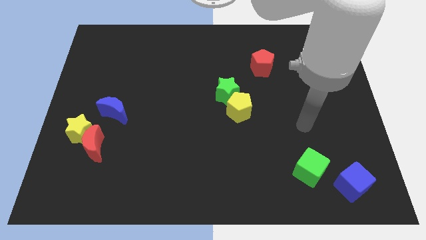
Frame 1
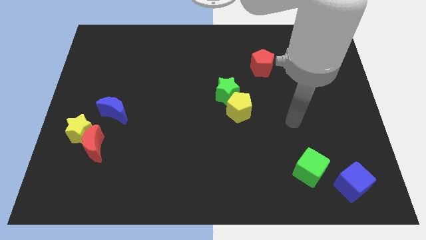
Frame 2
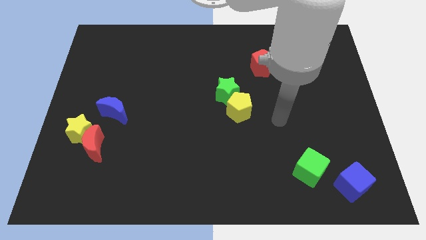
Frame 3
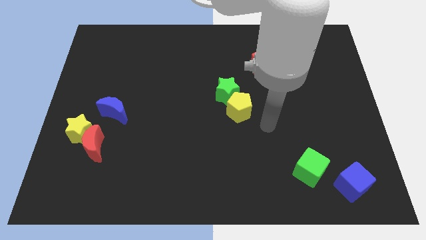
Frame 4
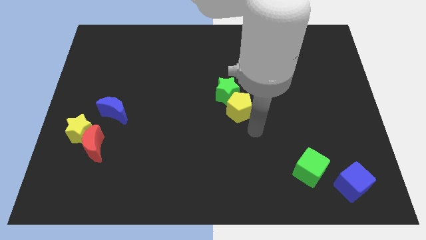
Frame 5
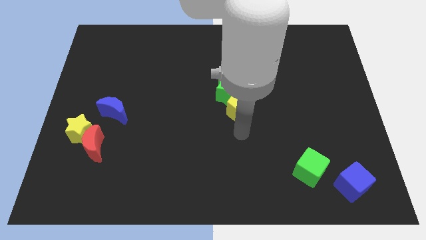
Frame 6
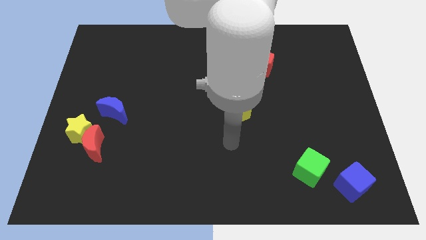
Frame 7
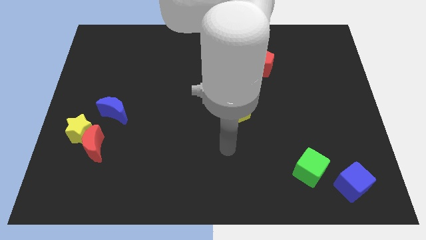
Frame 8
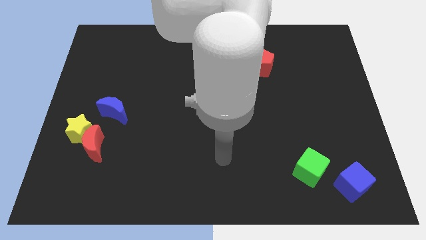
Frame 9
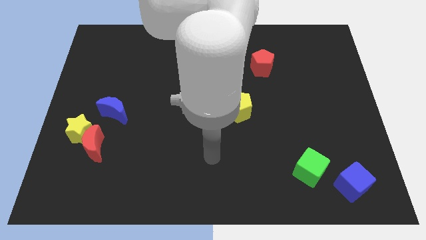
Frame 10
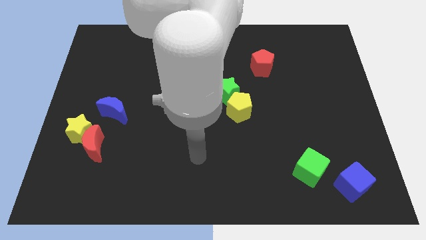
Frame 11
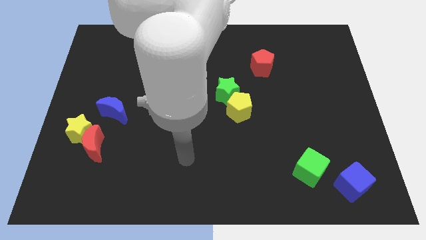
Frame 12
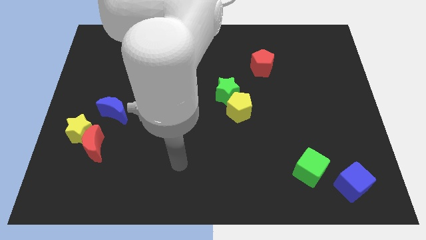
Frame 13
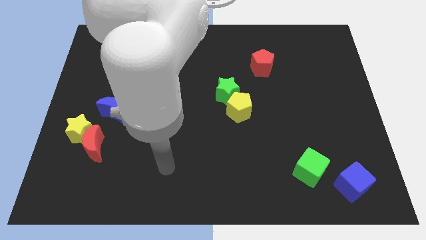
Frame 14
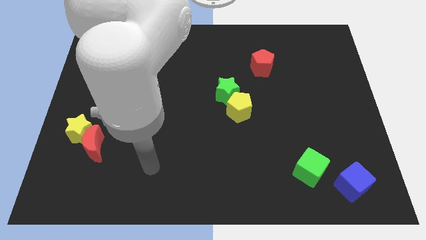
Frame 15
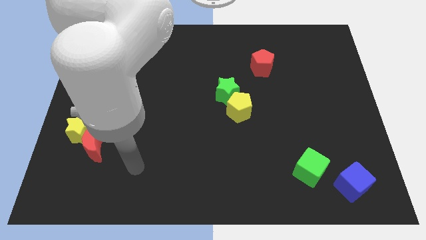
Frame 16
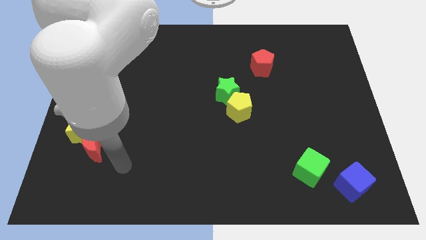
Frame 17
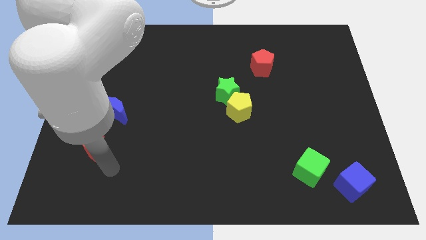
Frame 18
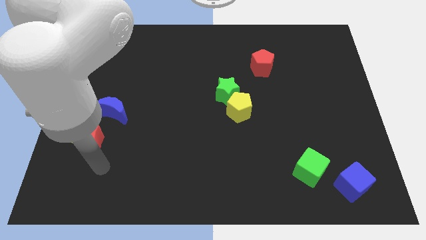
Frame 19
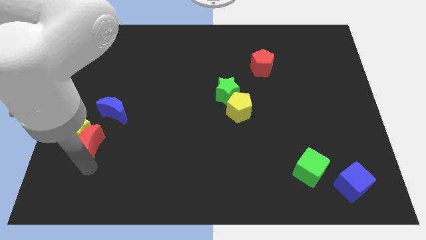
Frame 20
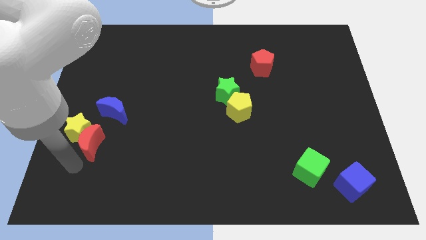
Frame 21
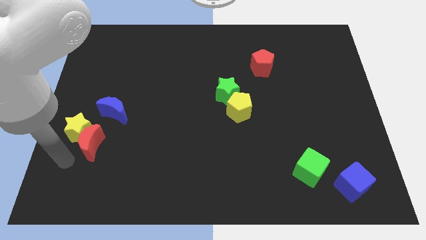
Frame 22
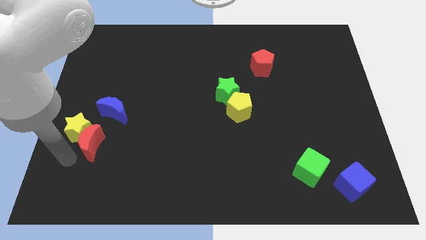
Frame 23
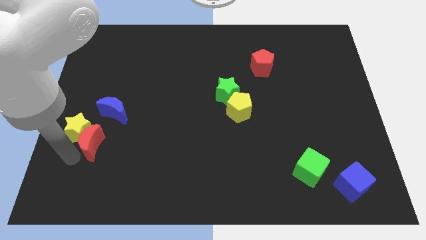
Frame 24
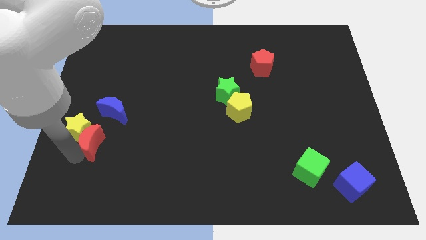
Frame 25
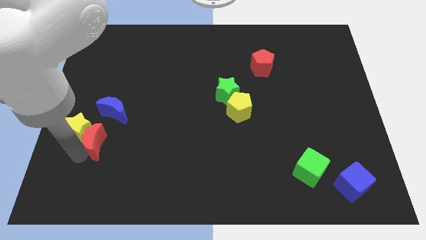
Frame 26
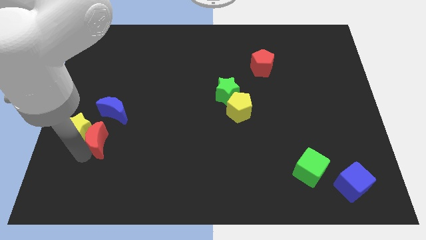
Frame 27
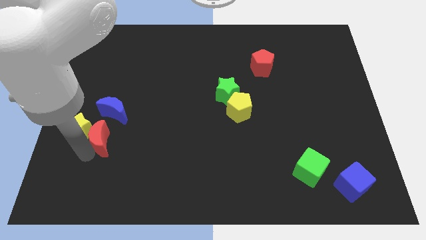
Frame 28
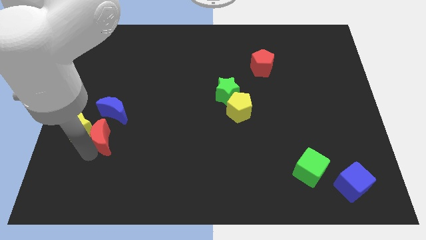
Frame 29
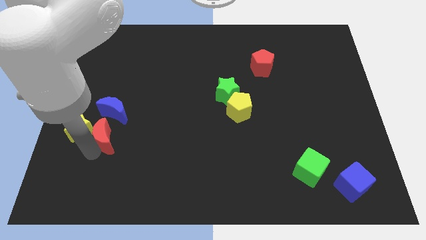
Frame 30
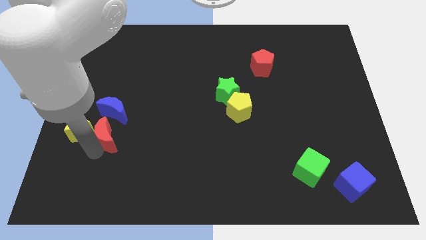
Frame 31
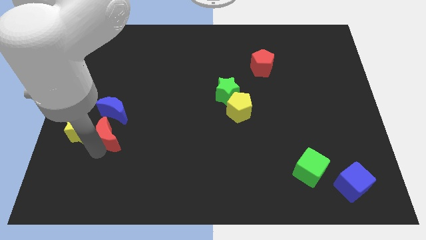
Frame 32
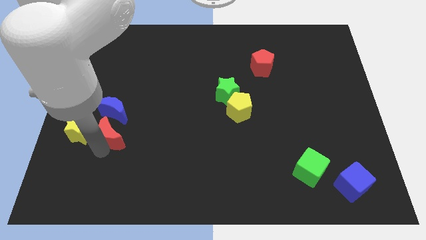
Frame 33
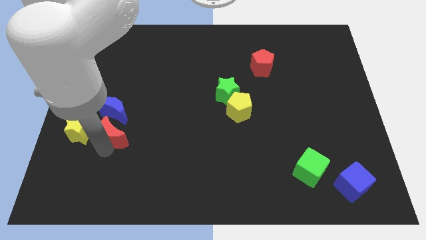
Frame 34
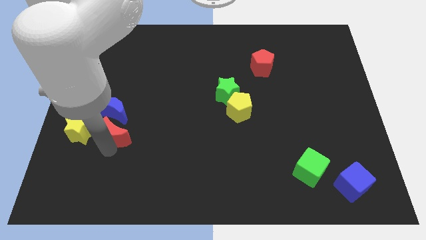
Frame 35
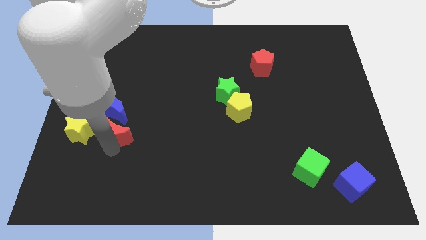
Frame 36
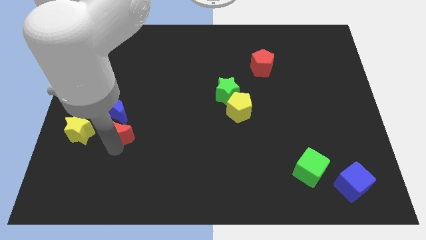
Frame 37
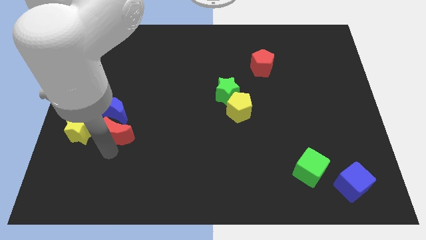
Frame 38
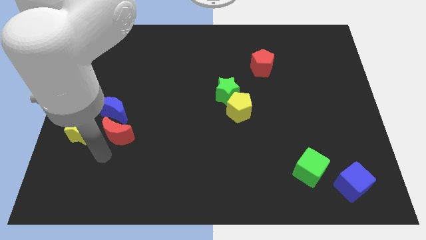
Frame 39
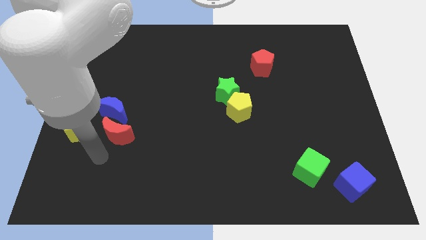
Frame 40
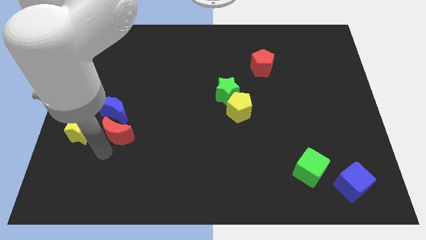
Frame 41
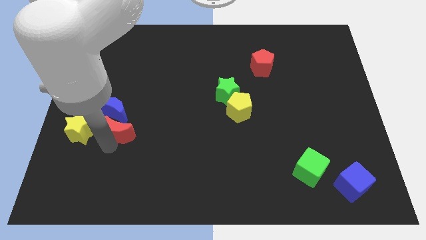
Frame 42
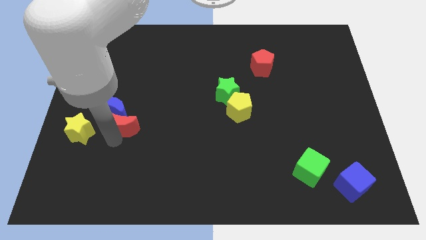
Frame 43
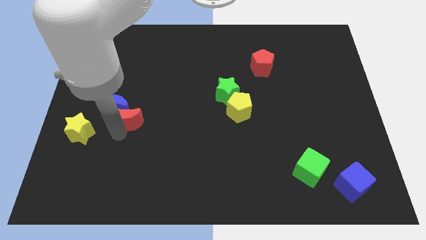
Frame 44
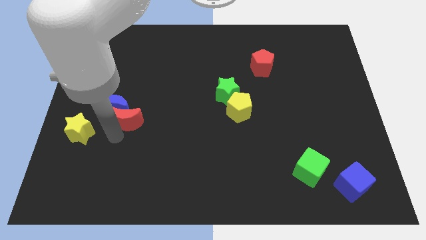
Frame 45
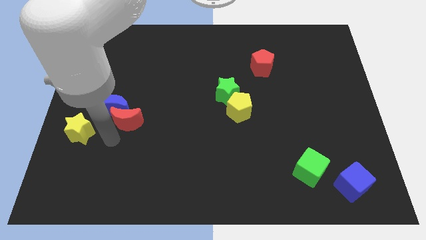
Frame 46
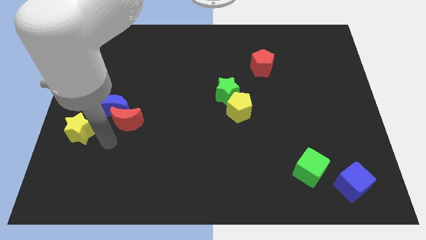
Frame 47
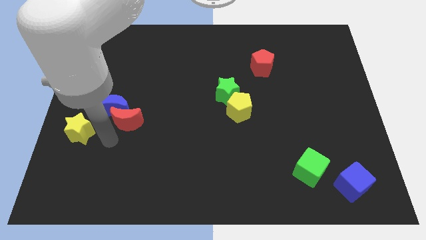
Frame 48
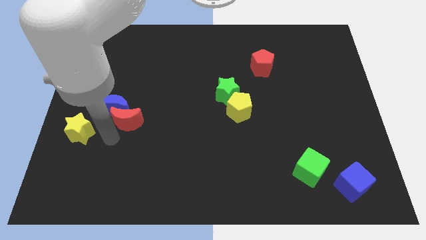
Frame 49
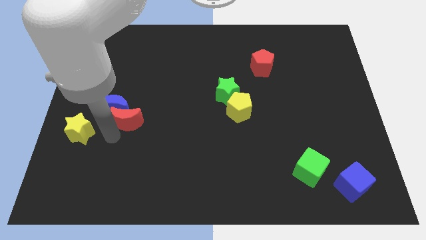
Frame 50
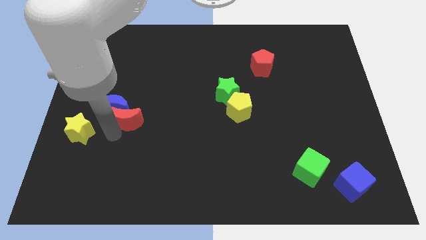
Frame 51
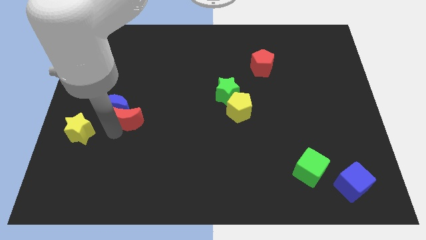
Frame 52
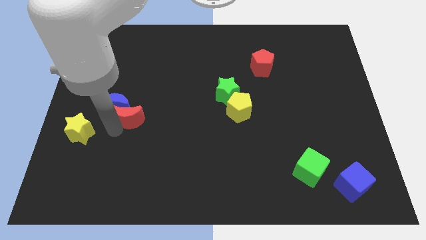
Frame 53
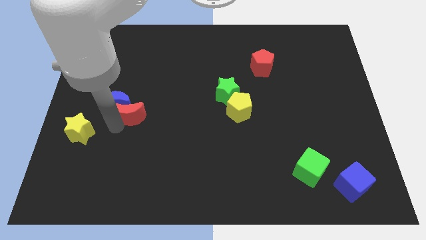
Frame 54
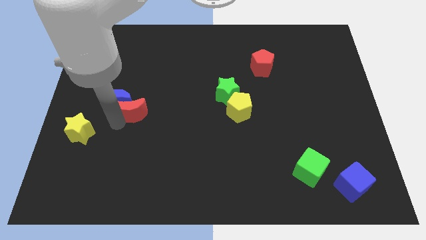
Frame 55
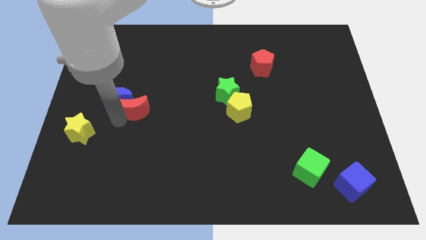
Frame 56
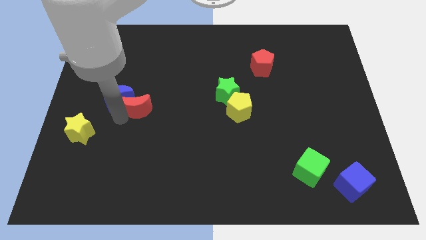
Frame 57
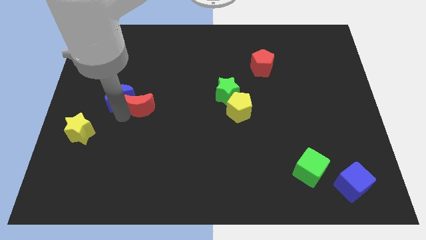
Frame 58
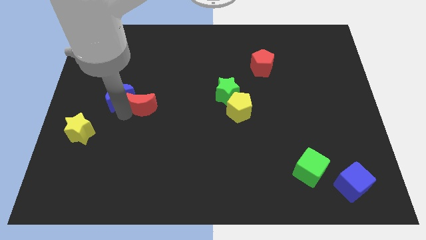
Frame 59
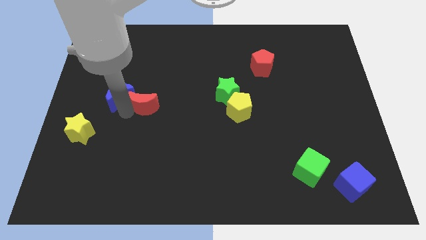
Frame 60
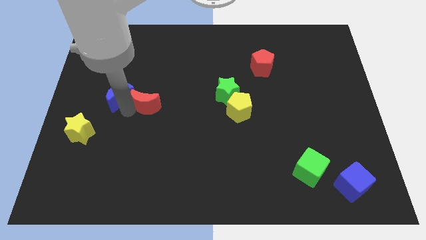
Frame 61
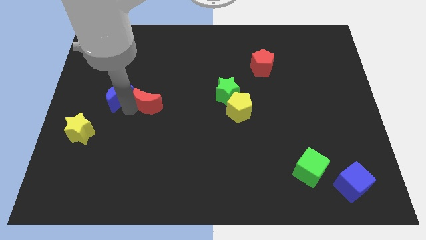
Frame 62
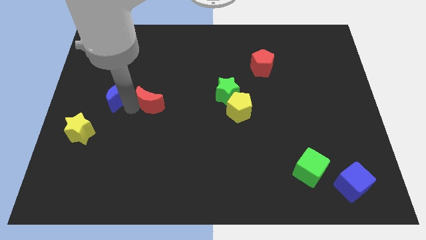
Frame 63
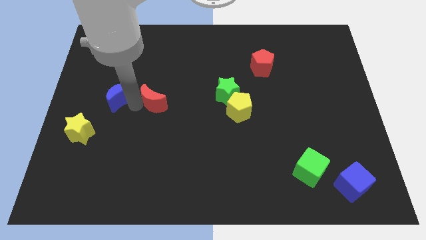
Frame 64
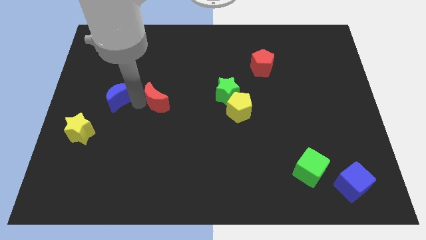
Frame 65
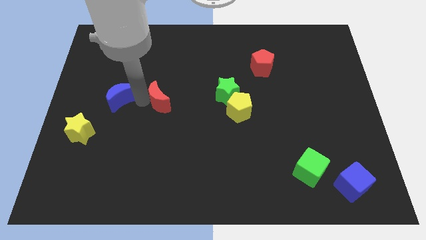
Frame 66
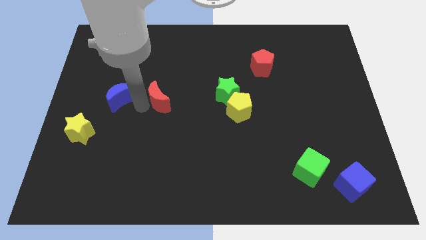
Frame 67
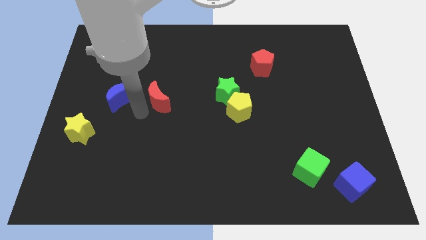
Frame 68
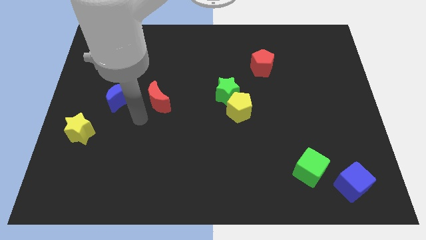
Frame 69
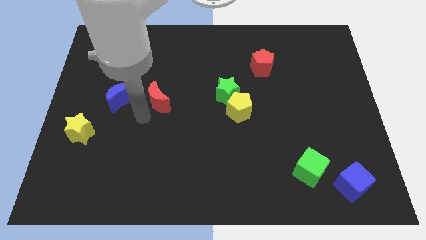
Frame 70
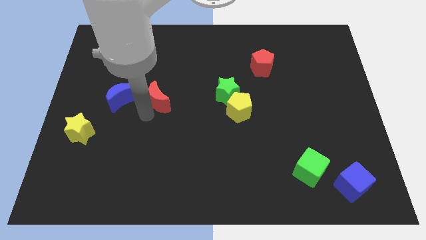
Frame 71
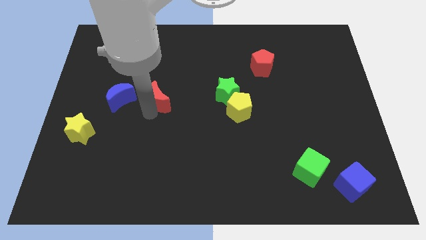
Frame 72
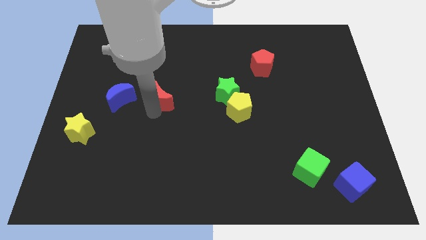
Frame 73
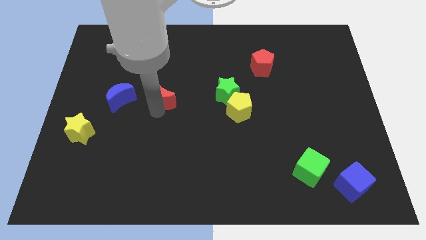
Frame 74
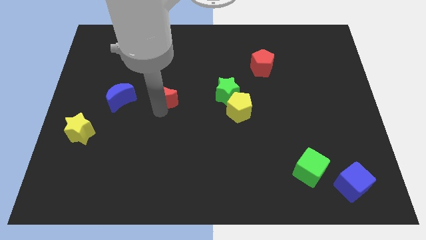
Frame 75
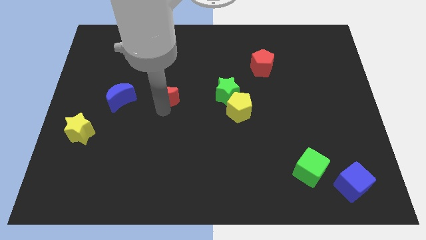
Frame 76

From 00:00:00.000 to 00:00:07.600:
slide the red moon upwards and right diagonally

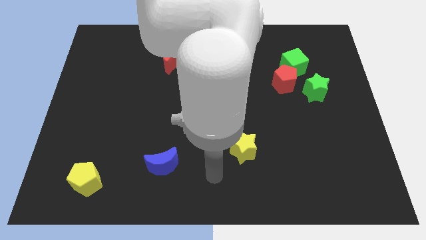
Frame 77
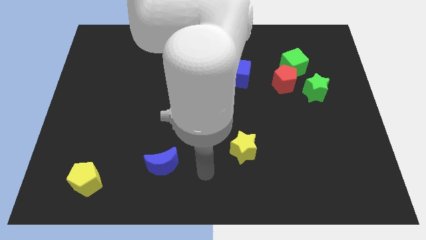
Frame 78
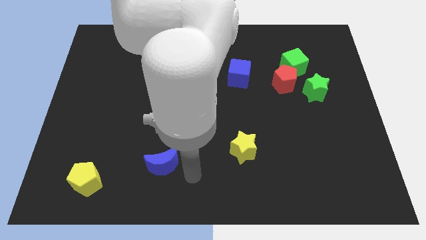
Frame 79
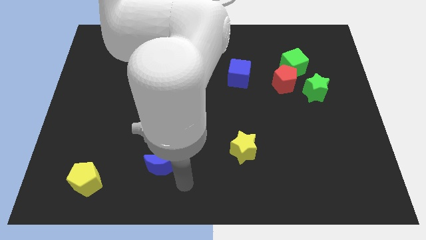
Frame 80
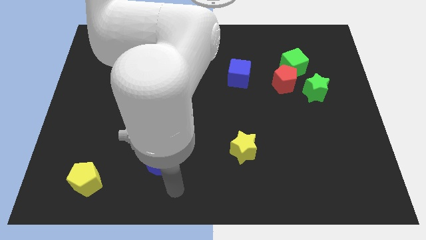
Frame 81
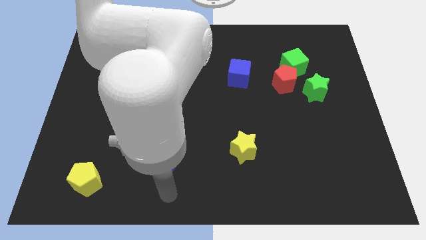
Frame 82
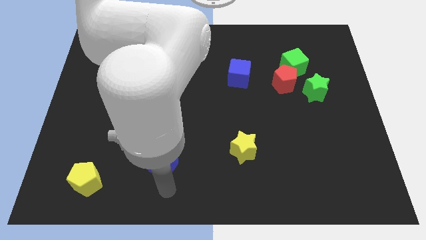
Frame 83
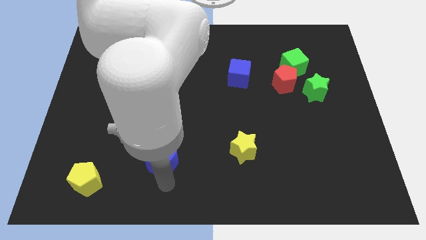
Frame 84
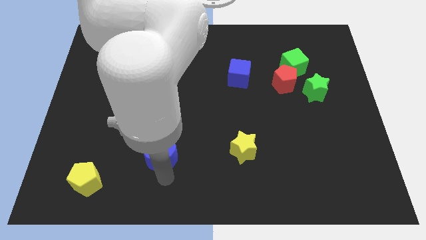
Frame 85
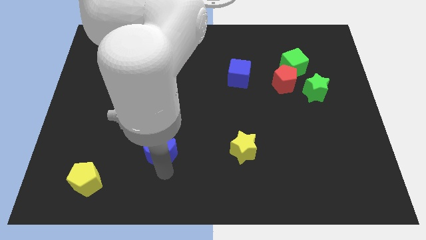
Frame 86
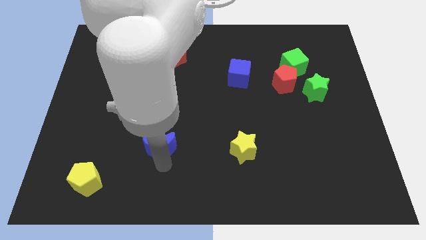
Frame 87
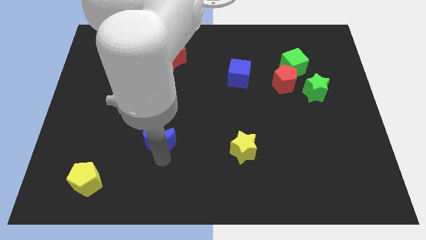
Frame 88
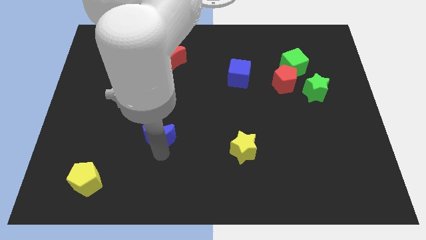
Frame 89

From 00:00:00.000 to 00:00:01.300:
slightly slide the blue moon upwards
